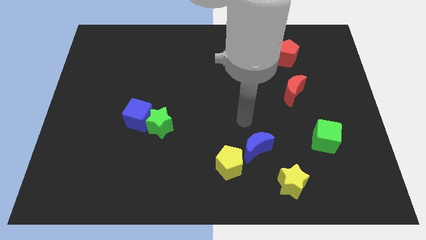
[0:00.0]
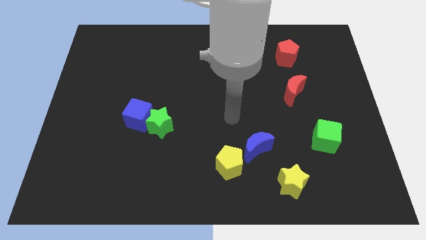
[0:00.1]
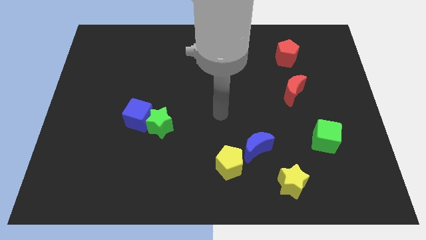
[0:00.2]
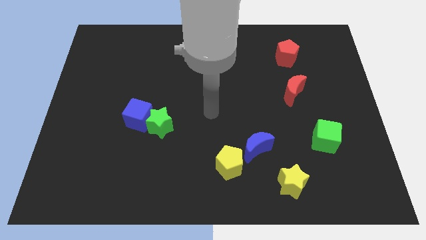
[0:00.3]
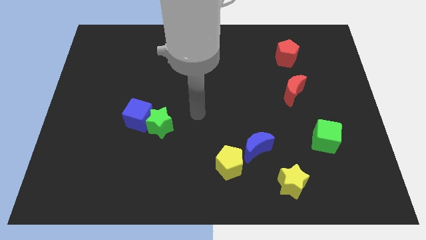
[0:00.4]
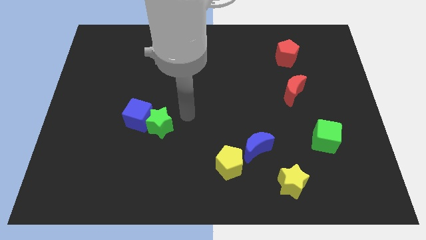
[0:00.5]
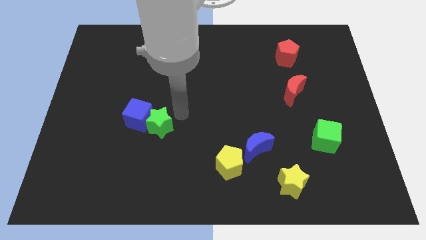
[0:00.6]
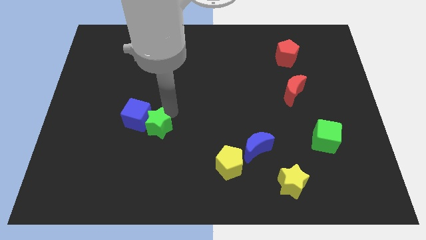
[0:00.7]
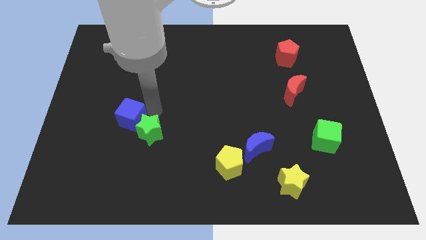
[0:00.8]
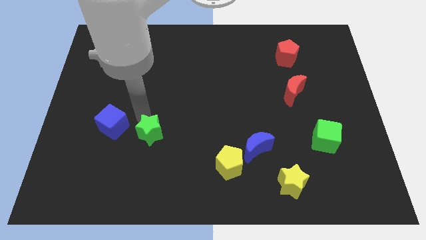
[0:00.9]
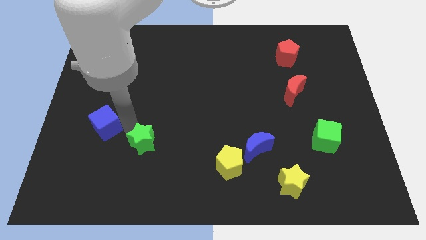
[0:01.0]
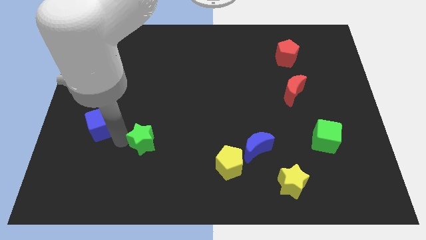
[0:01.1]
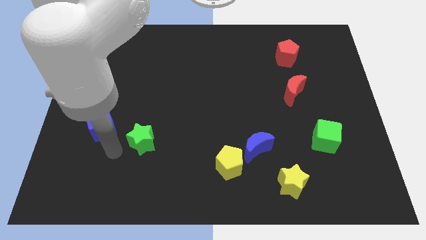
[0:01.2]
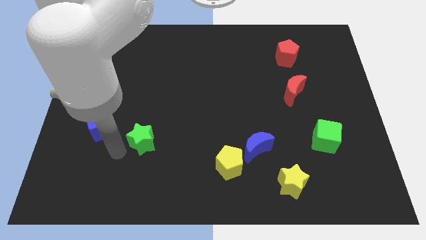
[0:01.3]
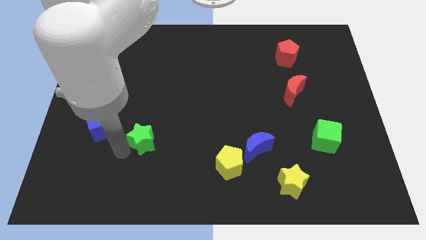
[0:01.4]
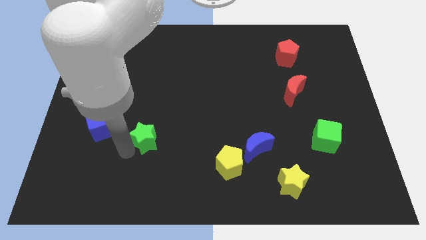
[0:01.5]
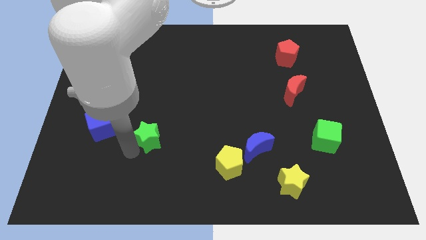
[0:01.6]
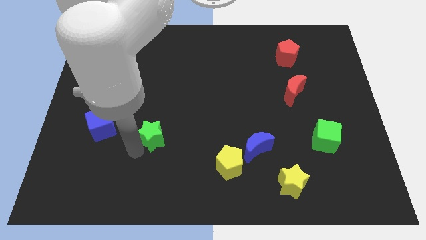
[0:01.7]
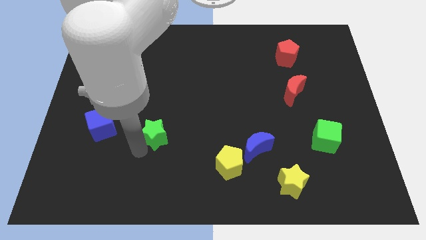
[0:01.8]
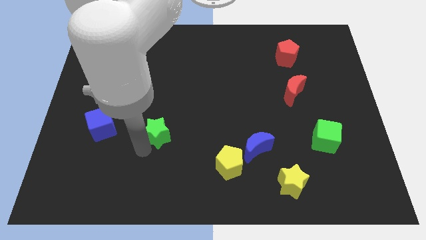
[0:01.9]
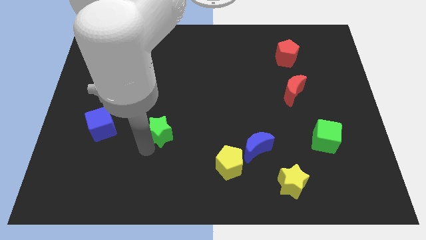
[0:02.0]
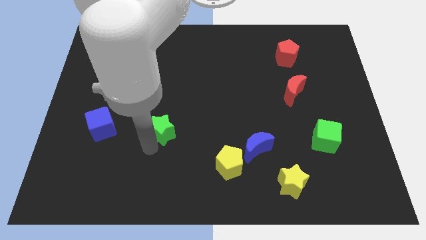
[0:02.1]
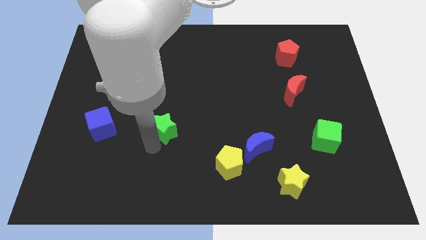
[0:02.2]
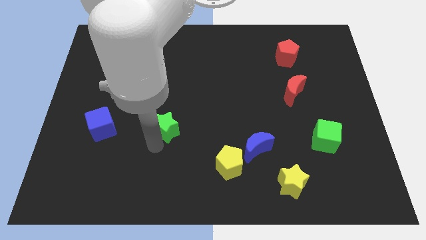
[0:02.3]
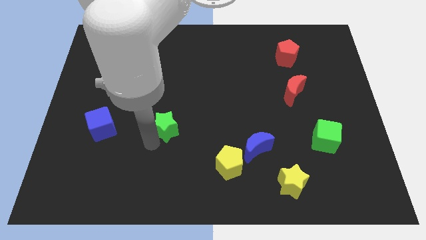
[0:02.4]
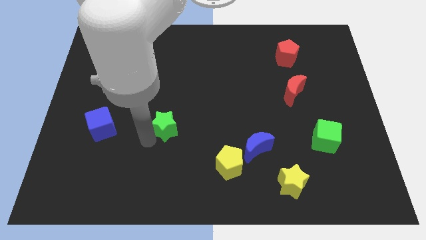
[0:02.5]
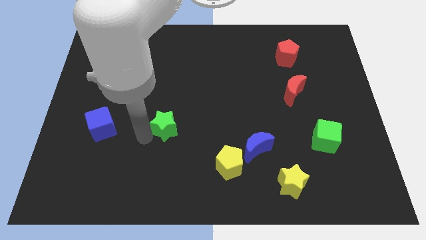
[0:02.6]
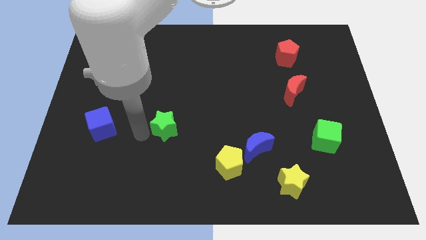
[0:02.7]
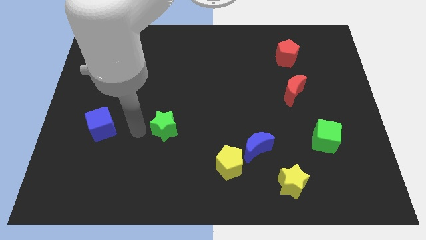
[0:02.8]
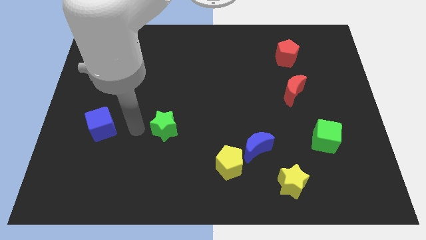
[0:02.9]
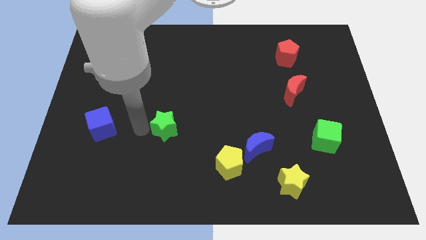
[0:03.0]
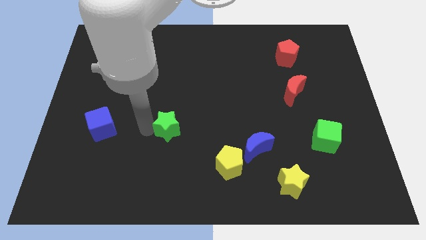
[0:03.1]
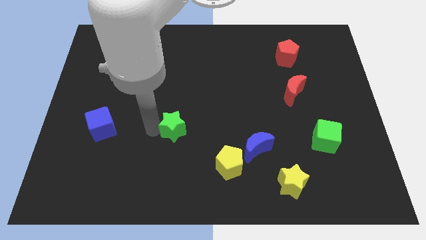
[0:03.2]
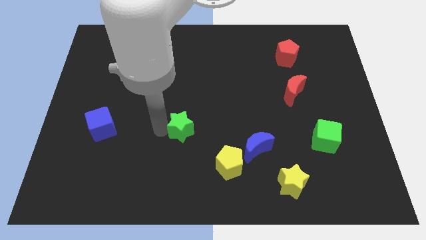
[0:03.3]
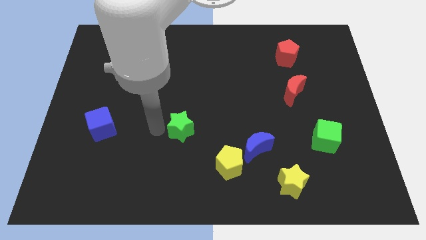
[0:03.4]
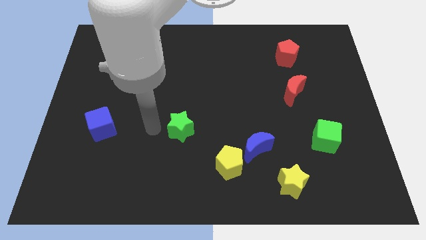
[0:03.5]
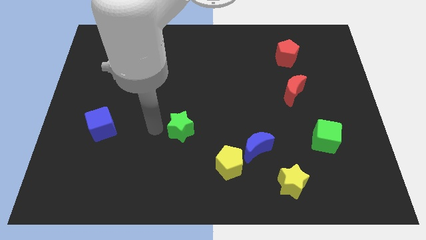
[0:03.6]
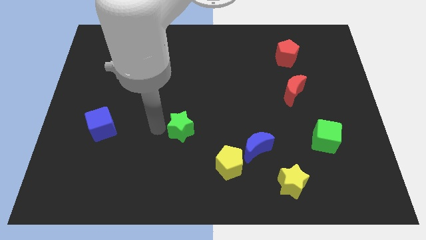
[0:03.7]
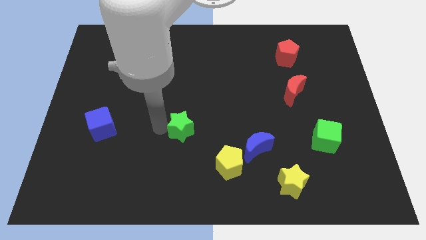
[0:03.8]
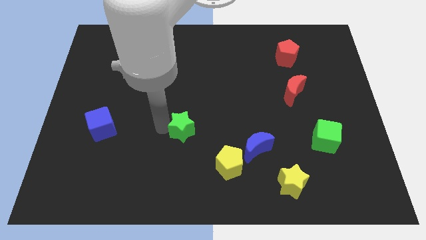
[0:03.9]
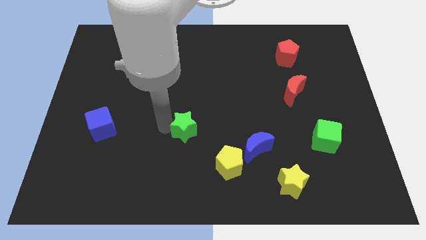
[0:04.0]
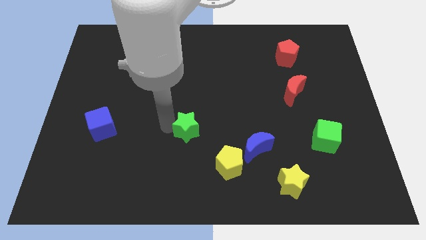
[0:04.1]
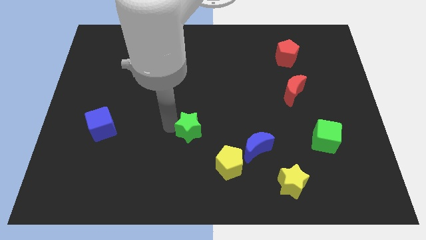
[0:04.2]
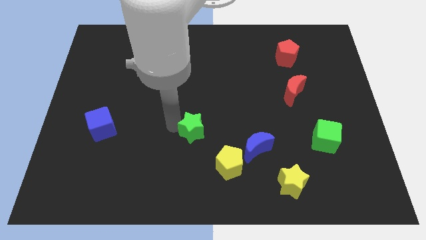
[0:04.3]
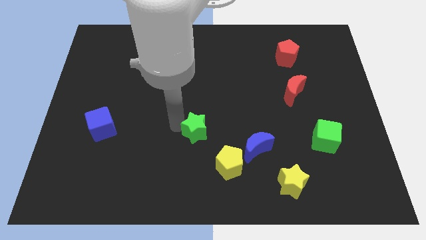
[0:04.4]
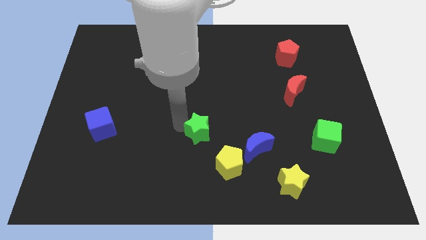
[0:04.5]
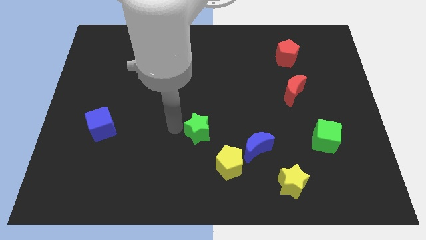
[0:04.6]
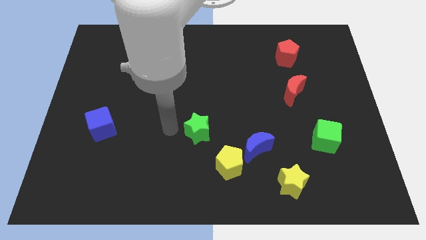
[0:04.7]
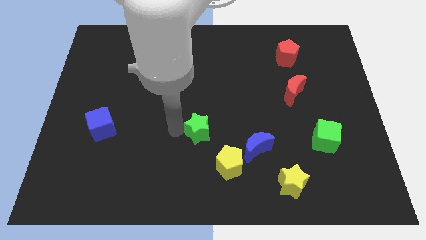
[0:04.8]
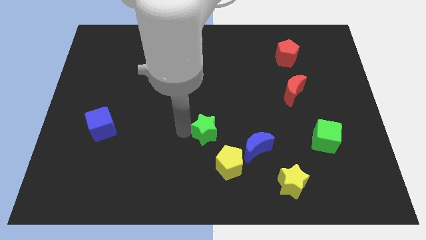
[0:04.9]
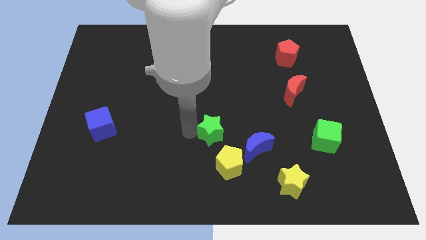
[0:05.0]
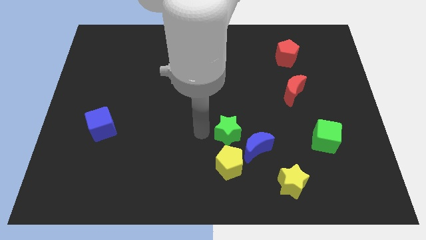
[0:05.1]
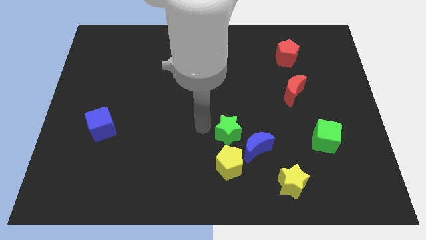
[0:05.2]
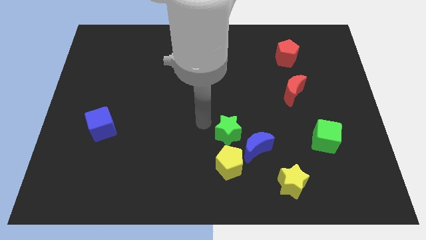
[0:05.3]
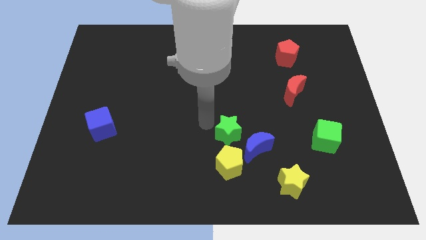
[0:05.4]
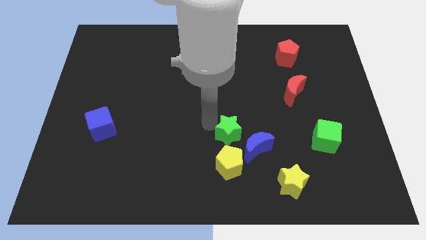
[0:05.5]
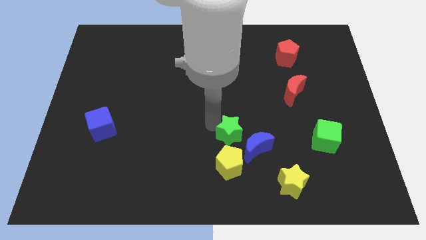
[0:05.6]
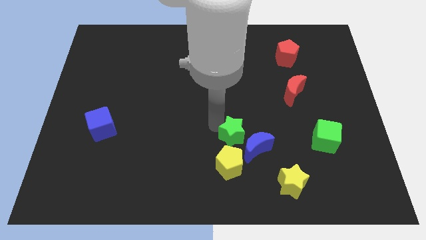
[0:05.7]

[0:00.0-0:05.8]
move the green star close to the blue moon

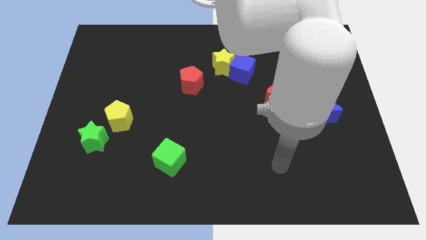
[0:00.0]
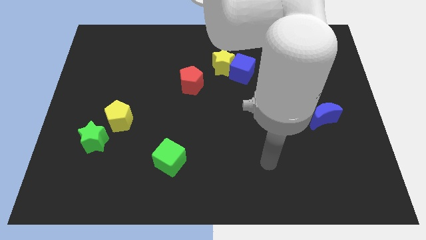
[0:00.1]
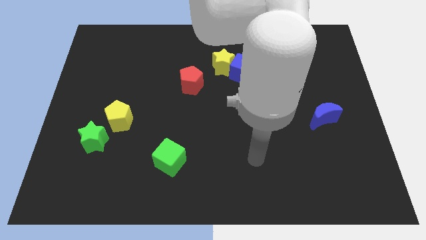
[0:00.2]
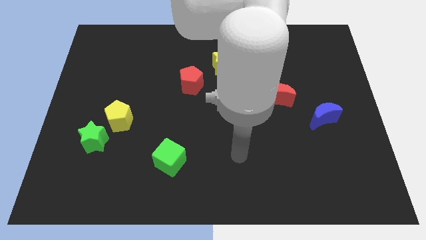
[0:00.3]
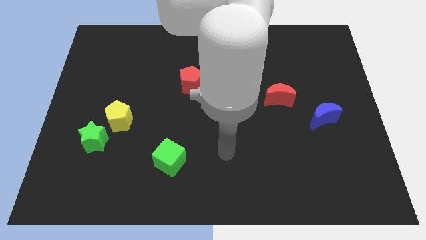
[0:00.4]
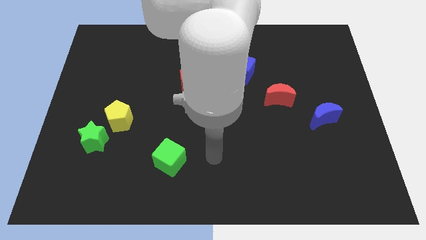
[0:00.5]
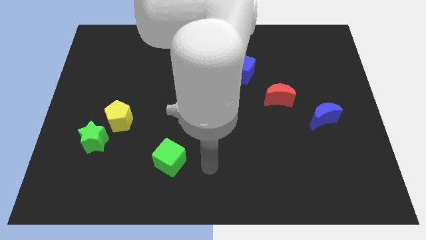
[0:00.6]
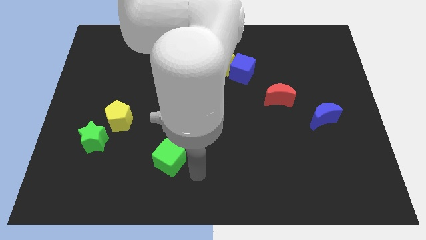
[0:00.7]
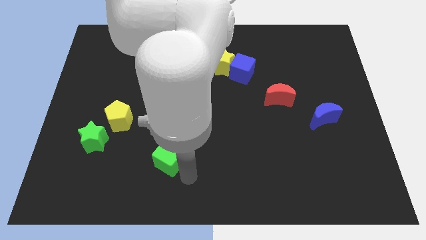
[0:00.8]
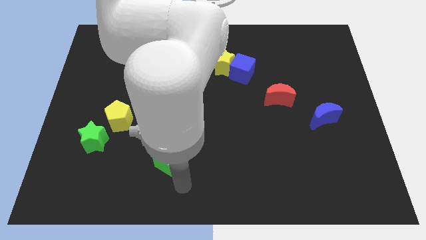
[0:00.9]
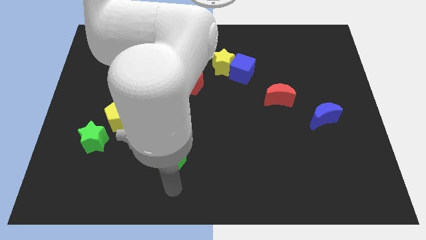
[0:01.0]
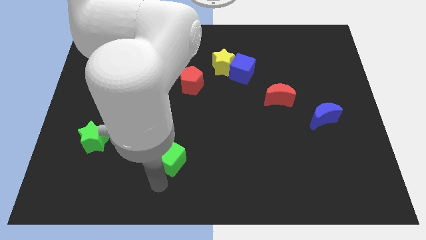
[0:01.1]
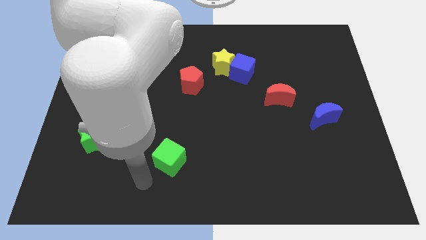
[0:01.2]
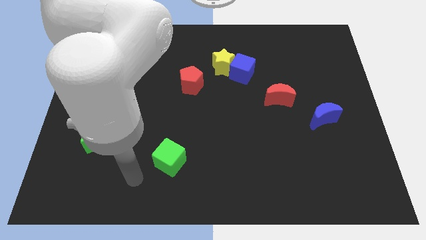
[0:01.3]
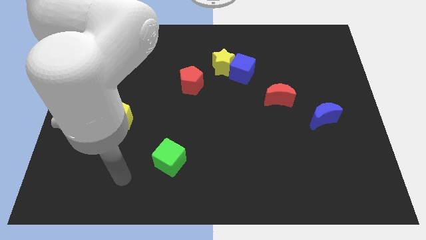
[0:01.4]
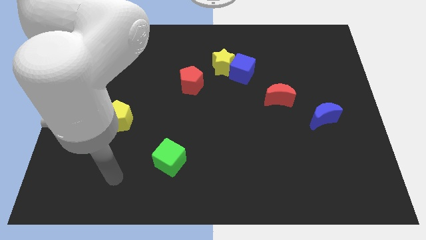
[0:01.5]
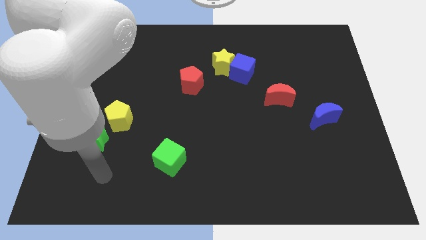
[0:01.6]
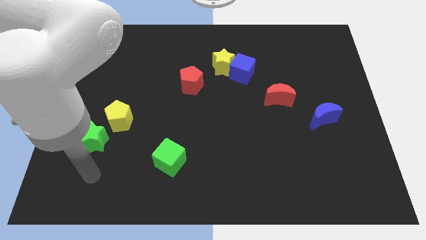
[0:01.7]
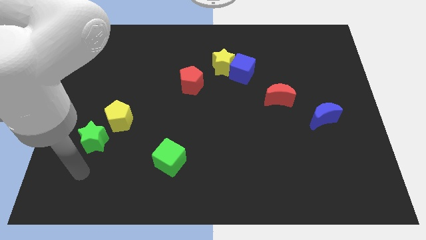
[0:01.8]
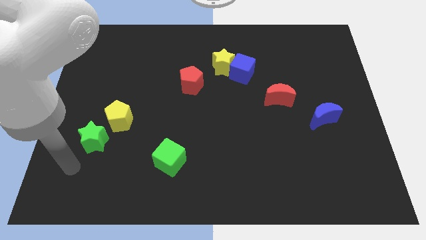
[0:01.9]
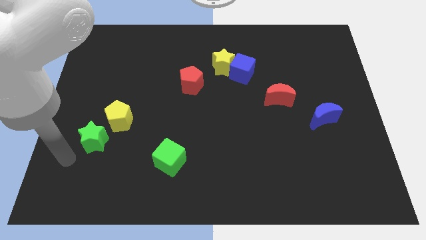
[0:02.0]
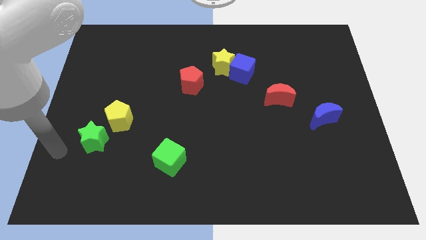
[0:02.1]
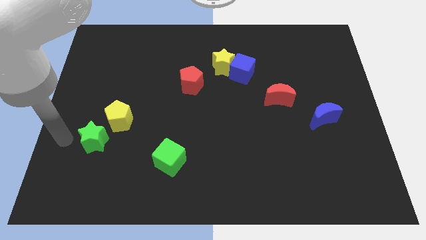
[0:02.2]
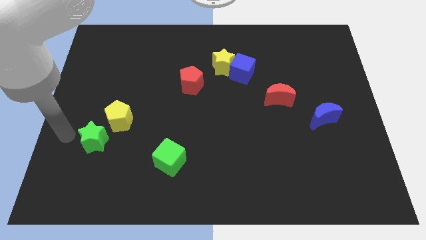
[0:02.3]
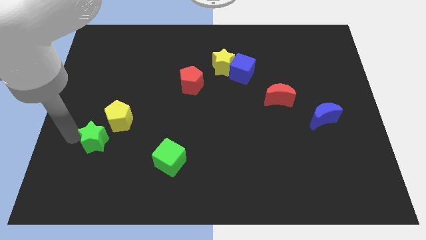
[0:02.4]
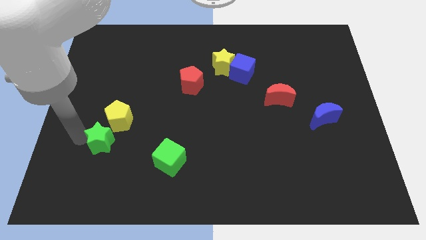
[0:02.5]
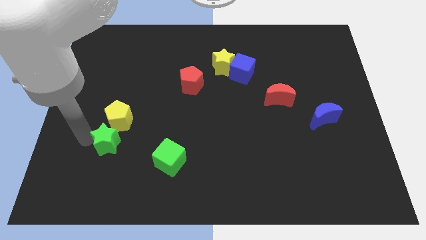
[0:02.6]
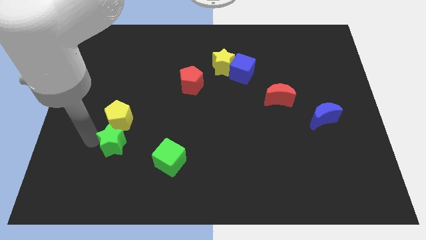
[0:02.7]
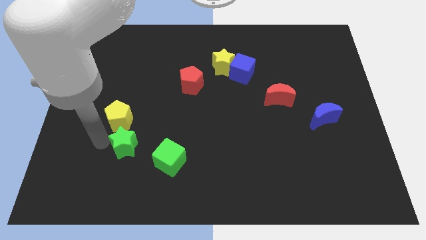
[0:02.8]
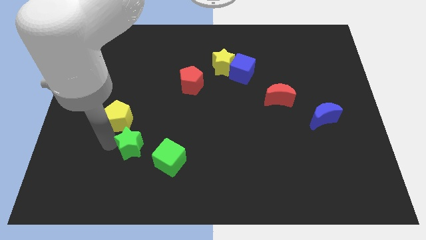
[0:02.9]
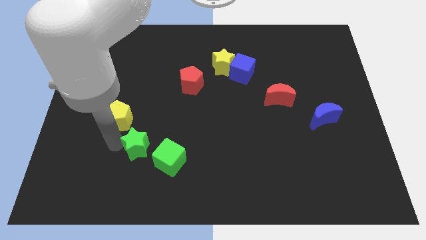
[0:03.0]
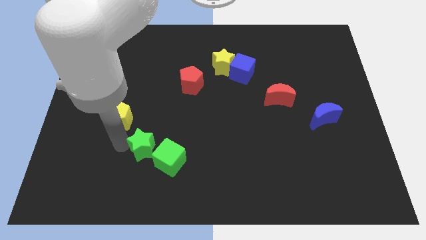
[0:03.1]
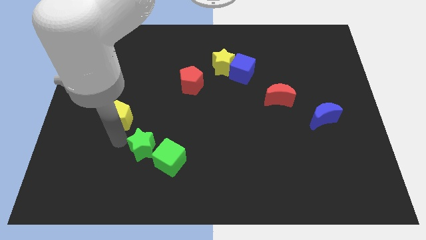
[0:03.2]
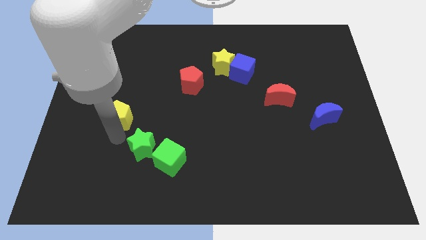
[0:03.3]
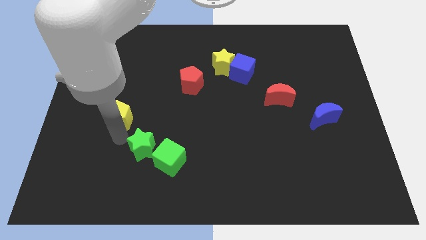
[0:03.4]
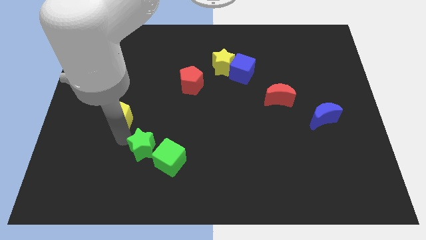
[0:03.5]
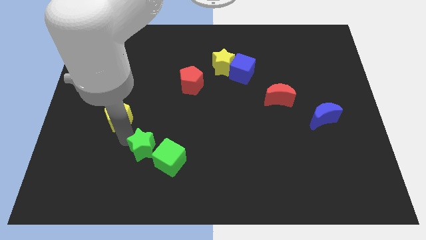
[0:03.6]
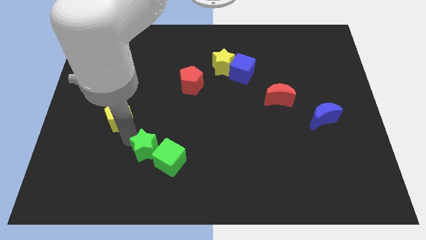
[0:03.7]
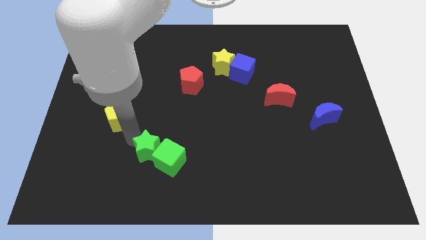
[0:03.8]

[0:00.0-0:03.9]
move the green star close to the green cube
